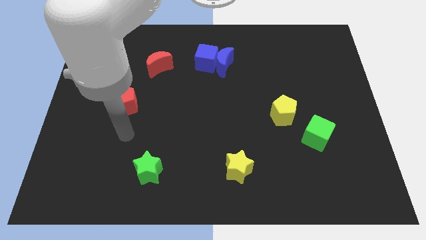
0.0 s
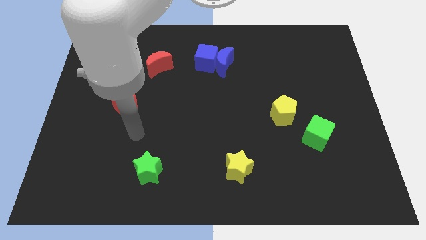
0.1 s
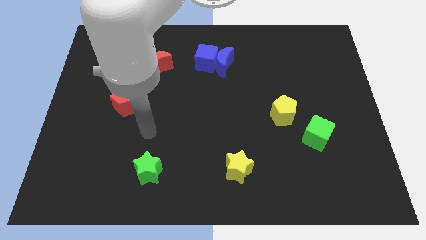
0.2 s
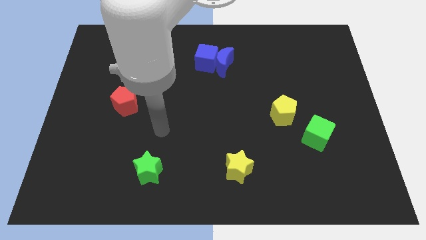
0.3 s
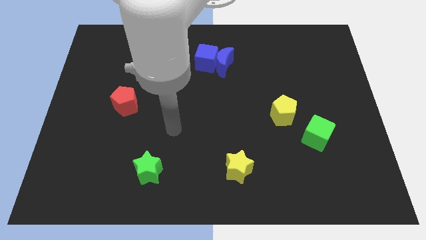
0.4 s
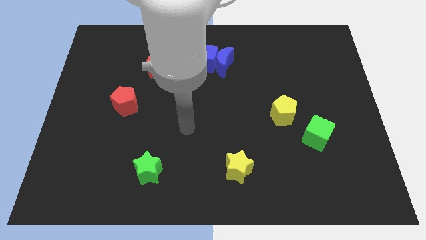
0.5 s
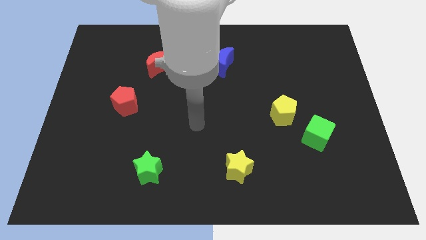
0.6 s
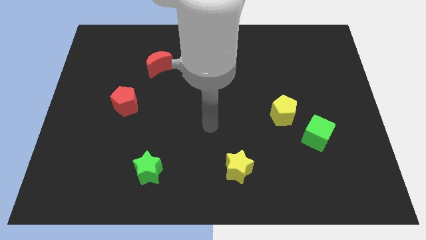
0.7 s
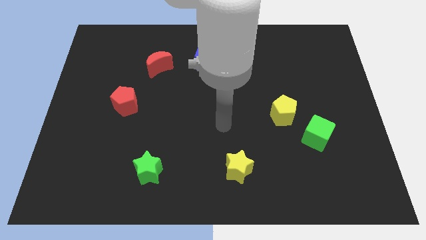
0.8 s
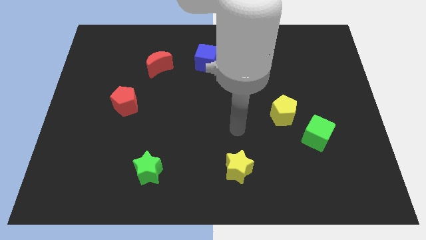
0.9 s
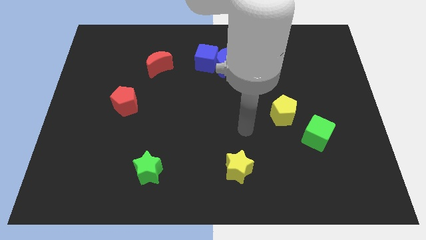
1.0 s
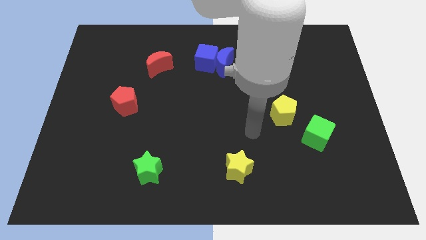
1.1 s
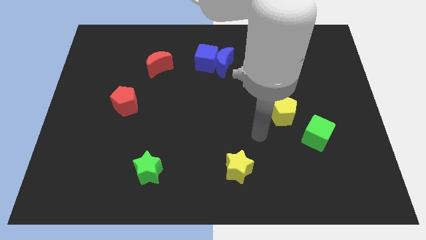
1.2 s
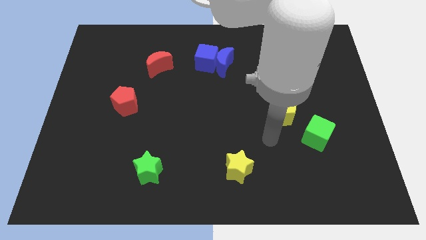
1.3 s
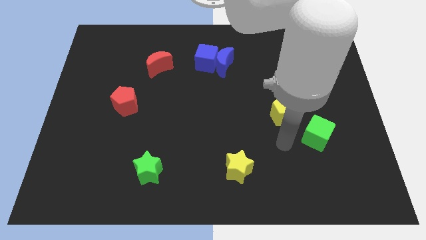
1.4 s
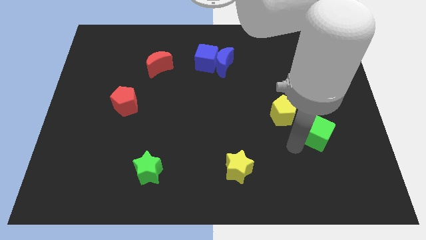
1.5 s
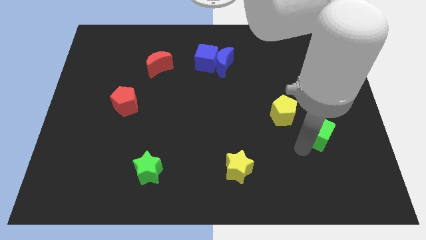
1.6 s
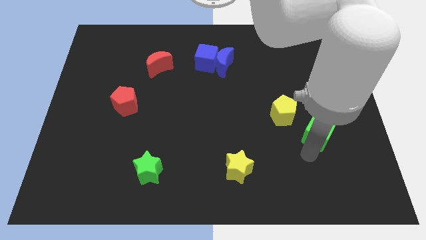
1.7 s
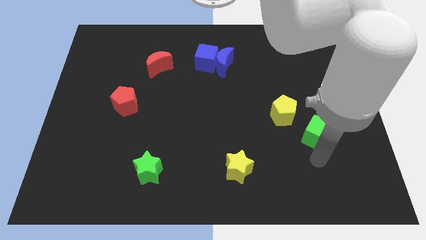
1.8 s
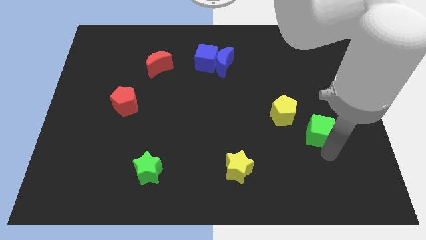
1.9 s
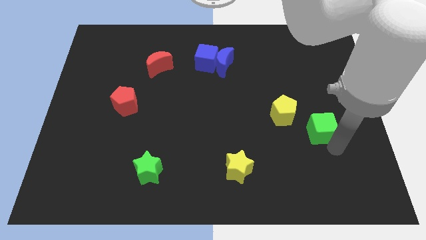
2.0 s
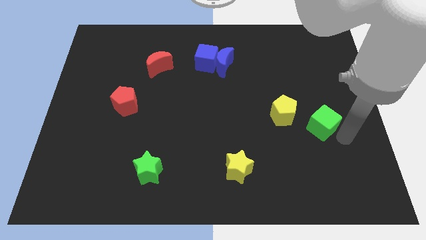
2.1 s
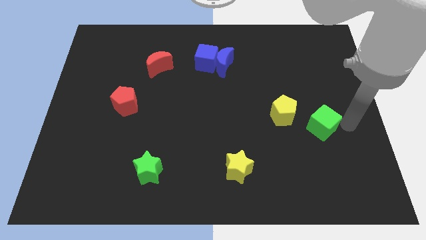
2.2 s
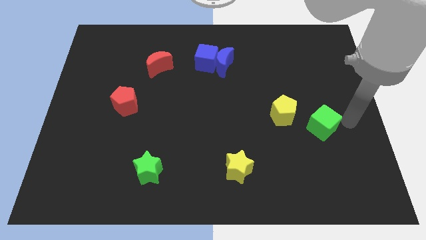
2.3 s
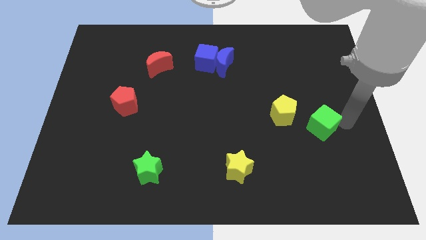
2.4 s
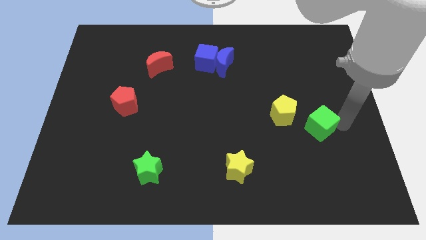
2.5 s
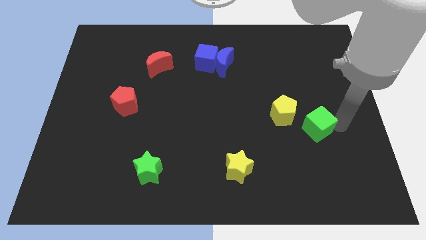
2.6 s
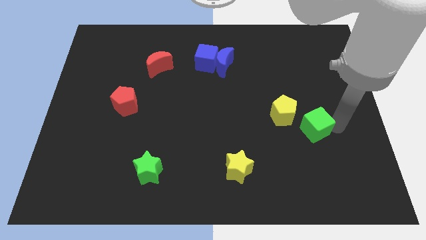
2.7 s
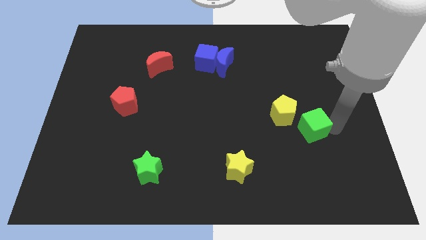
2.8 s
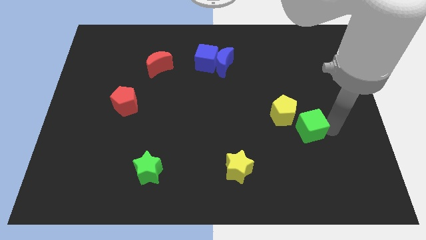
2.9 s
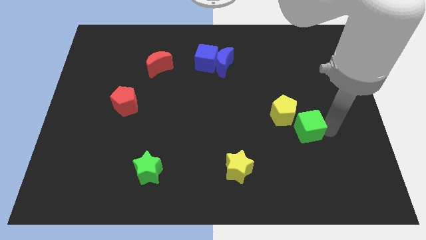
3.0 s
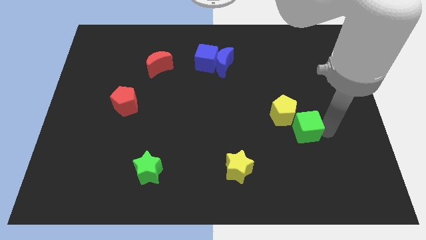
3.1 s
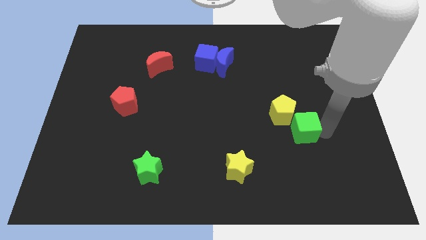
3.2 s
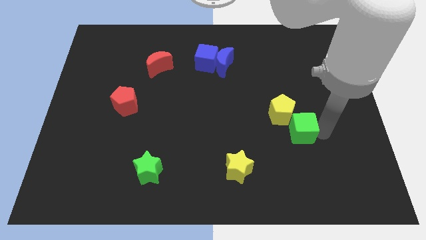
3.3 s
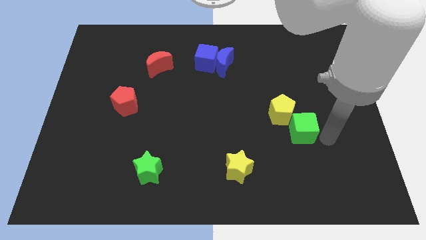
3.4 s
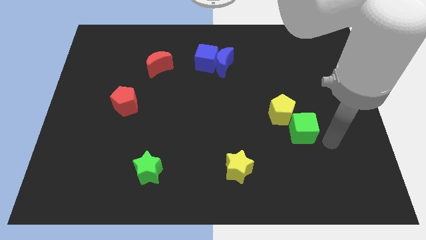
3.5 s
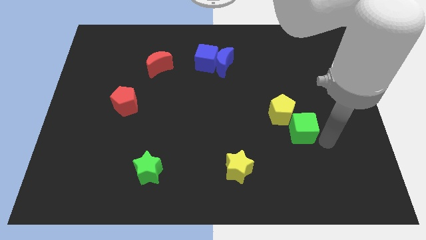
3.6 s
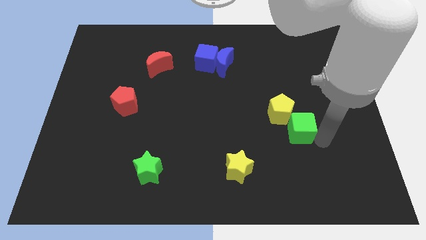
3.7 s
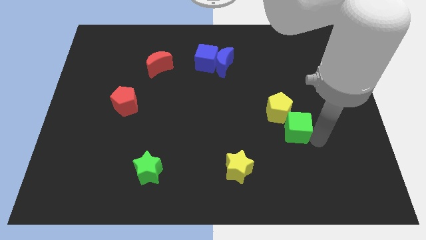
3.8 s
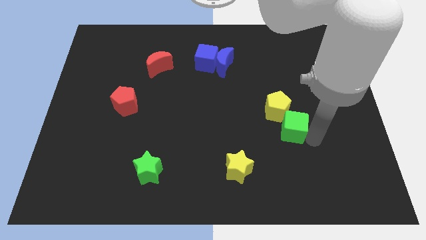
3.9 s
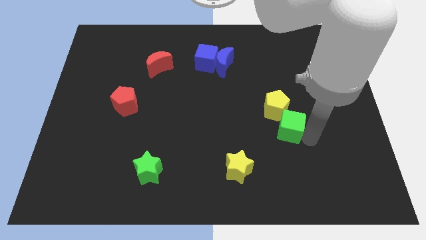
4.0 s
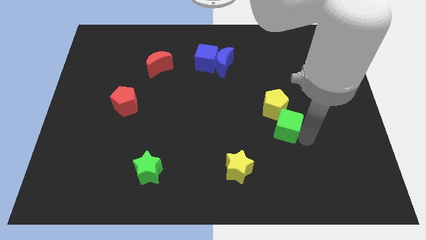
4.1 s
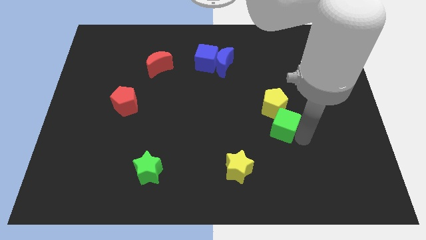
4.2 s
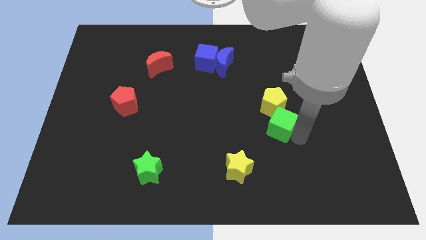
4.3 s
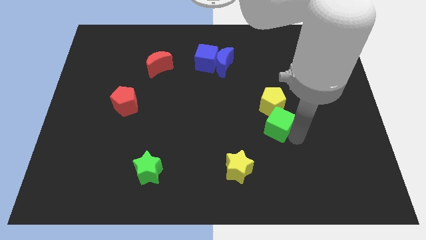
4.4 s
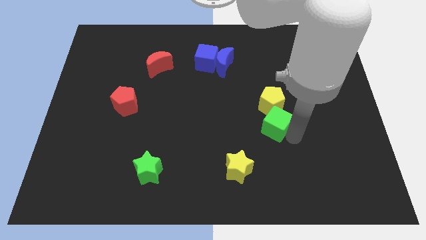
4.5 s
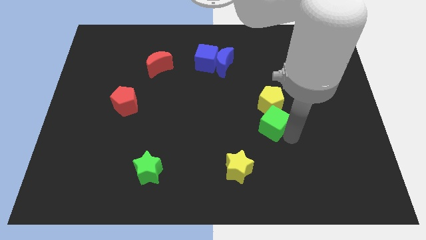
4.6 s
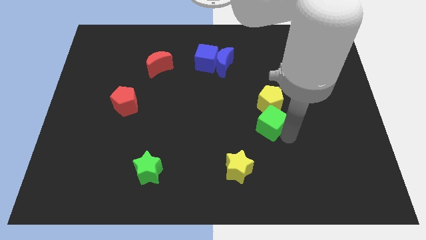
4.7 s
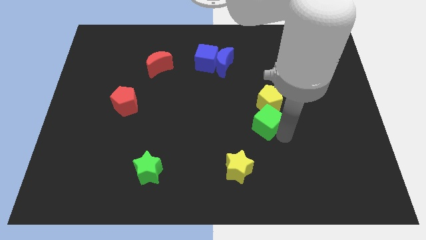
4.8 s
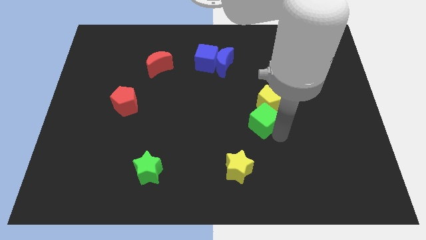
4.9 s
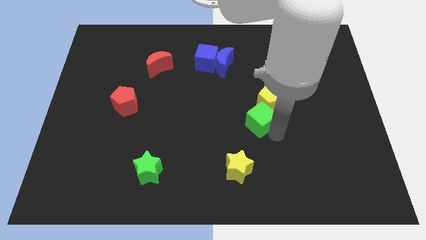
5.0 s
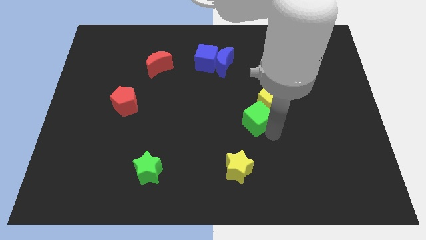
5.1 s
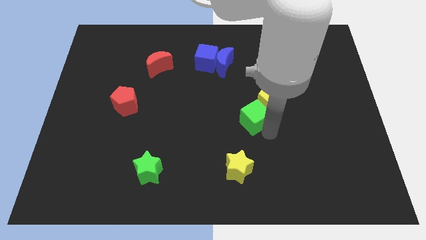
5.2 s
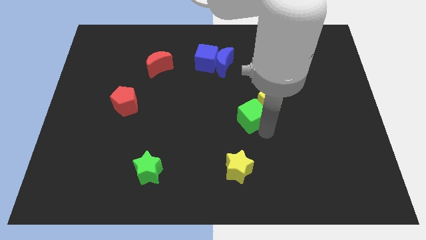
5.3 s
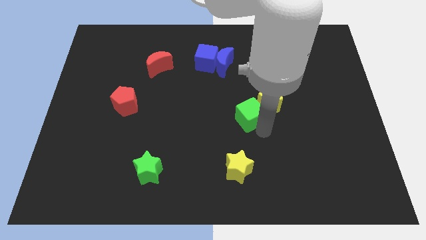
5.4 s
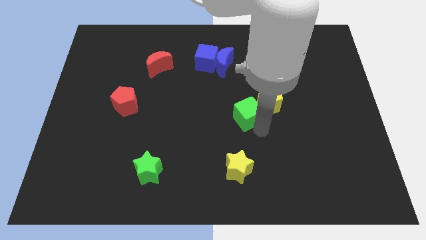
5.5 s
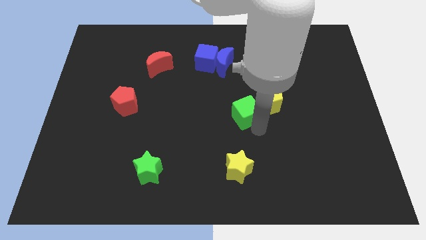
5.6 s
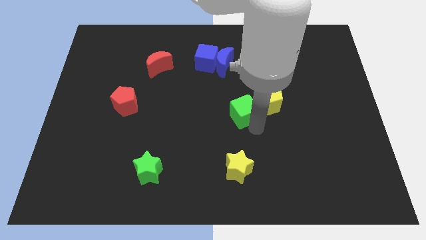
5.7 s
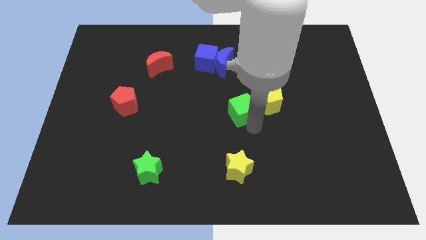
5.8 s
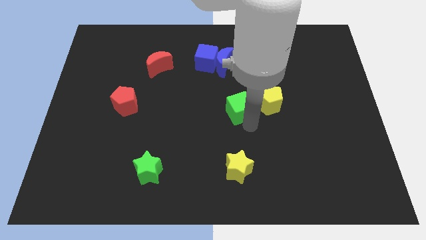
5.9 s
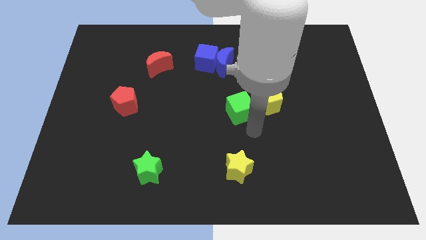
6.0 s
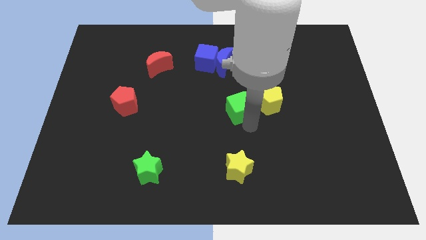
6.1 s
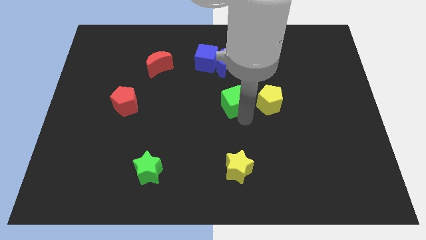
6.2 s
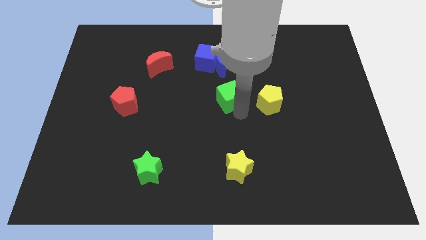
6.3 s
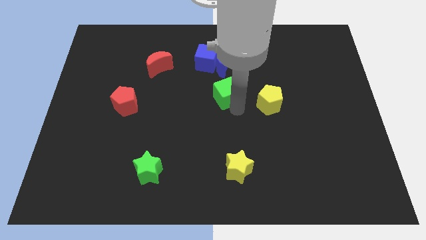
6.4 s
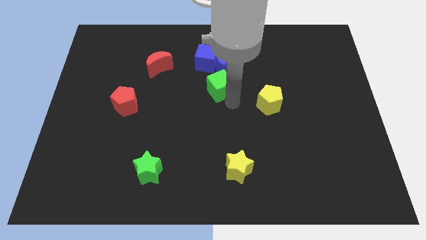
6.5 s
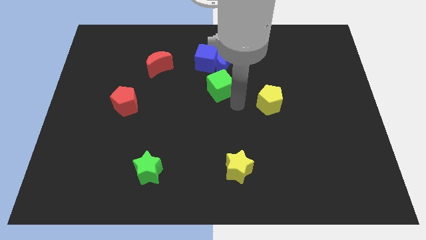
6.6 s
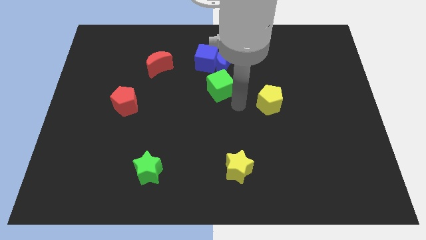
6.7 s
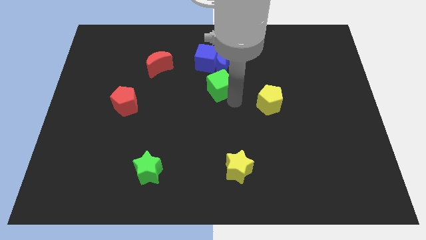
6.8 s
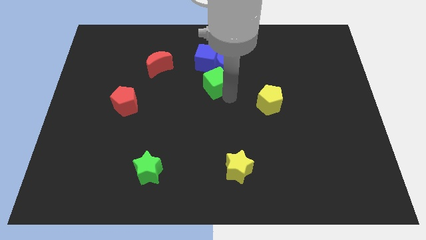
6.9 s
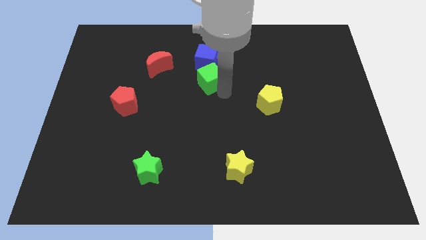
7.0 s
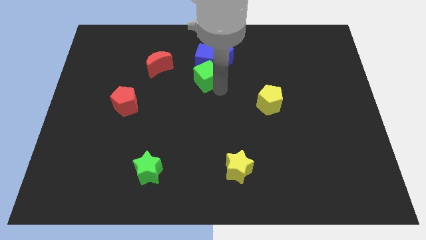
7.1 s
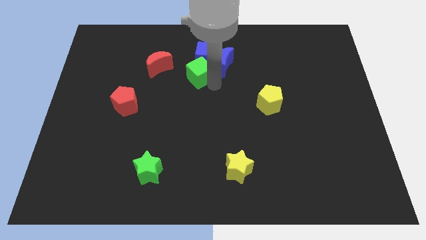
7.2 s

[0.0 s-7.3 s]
move the green cube to the left side of the blue moon
